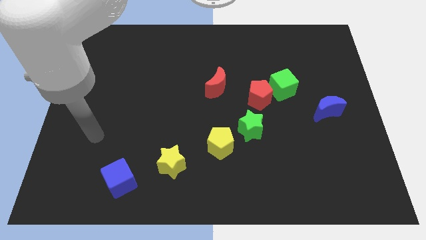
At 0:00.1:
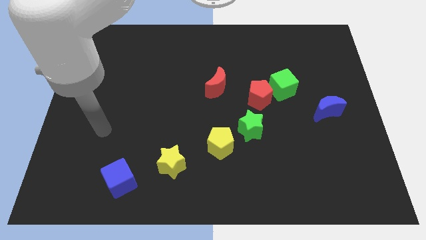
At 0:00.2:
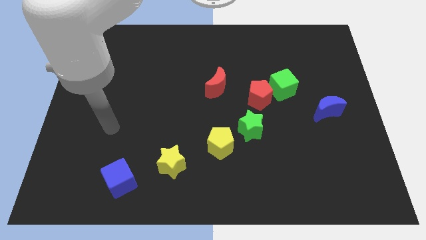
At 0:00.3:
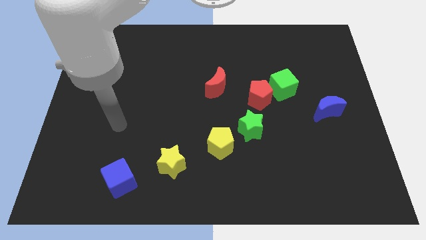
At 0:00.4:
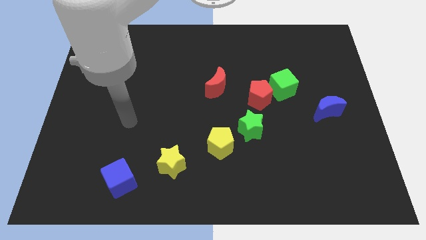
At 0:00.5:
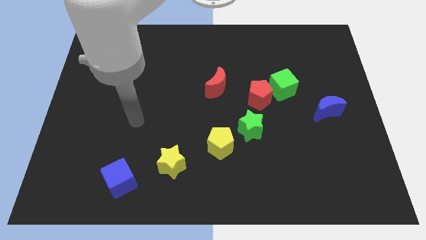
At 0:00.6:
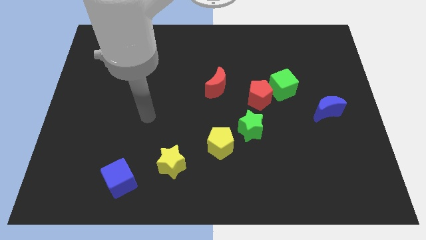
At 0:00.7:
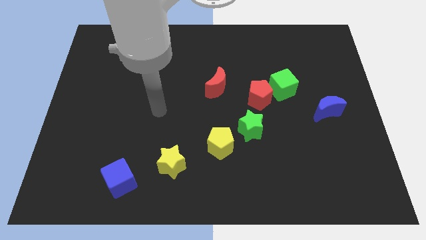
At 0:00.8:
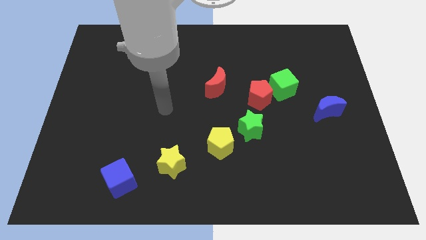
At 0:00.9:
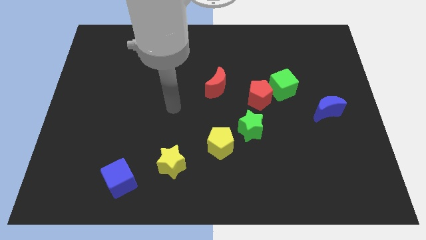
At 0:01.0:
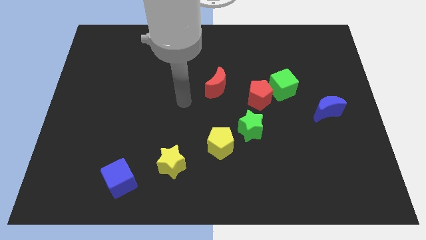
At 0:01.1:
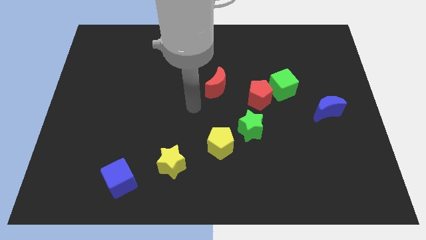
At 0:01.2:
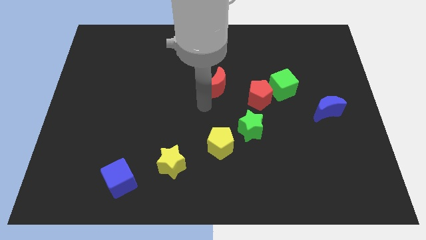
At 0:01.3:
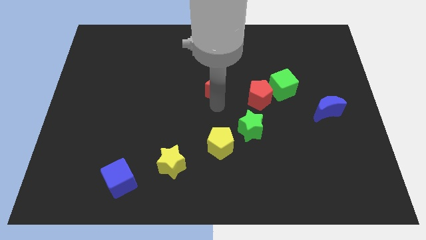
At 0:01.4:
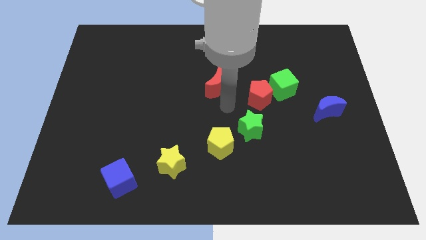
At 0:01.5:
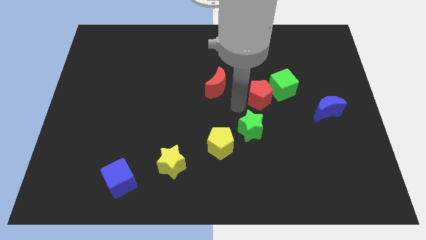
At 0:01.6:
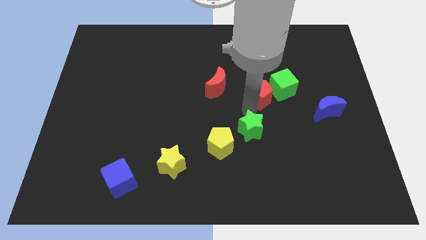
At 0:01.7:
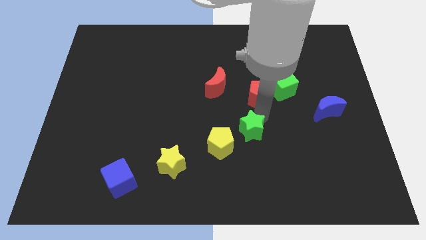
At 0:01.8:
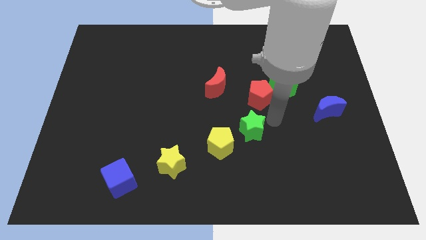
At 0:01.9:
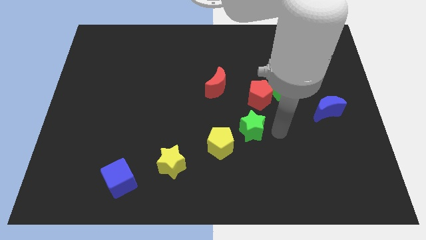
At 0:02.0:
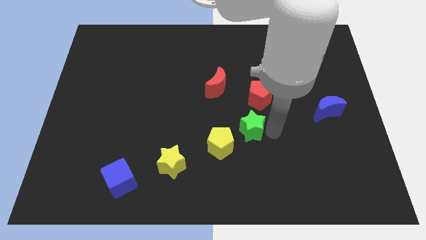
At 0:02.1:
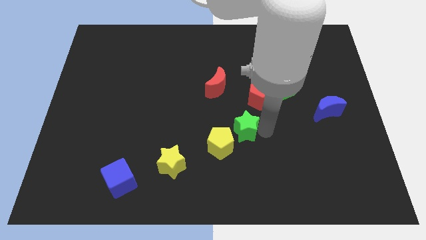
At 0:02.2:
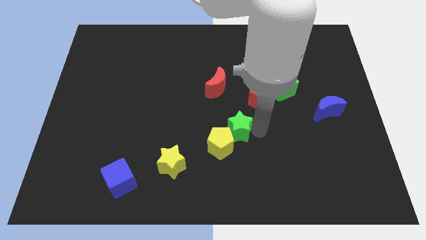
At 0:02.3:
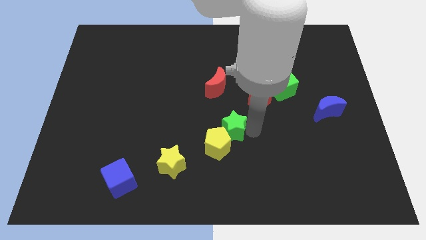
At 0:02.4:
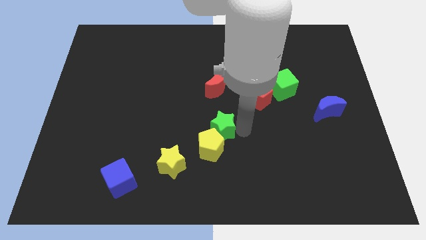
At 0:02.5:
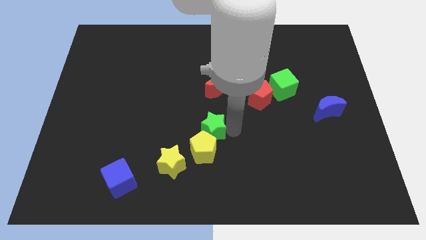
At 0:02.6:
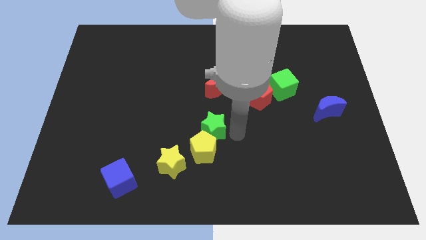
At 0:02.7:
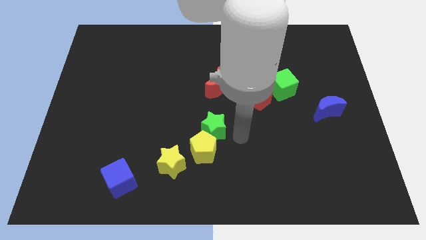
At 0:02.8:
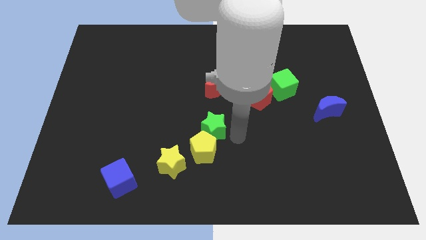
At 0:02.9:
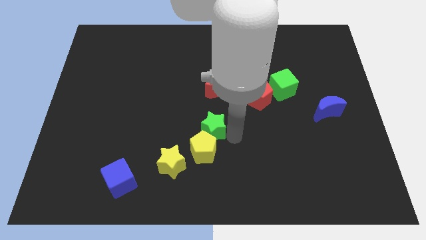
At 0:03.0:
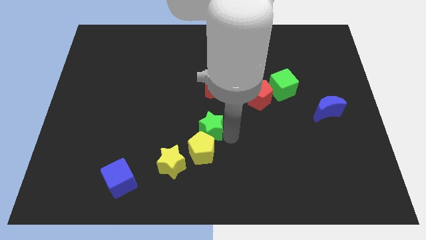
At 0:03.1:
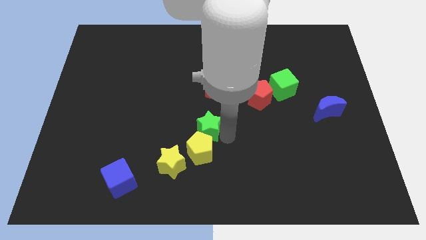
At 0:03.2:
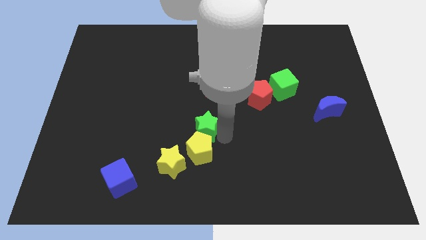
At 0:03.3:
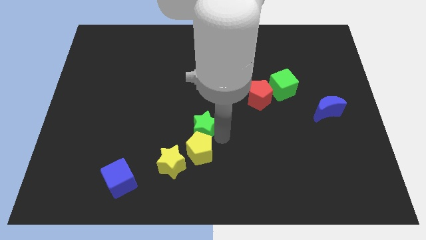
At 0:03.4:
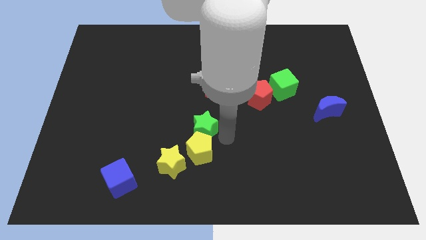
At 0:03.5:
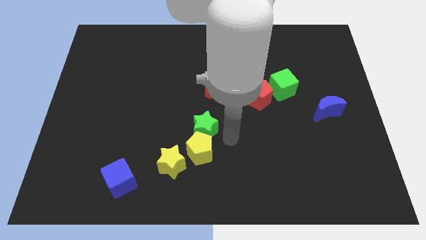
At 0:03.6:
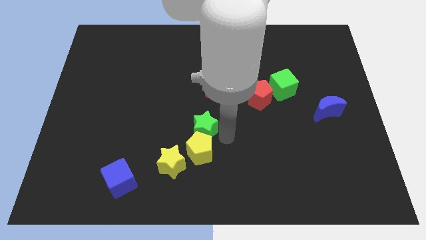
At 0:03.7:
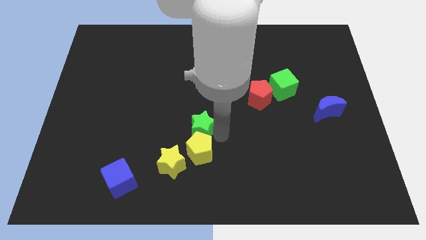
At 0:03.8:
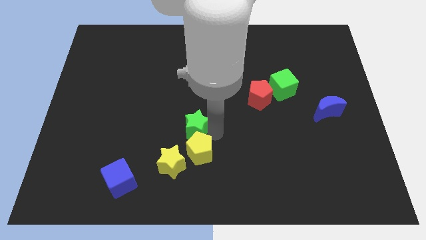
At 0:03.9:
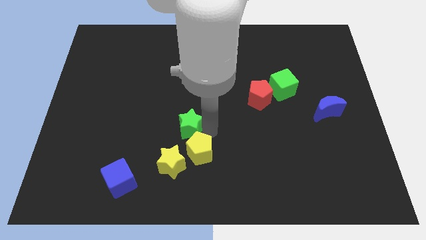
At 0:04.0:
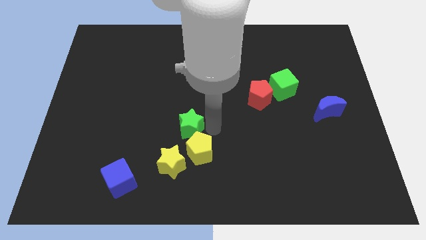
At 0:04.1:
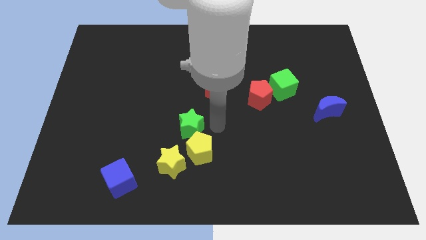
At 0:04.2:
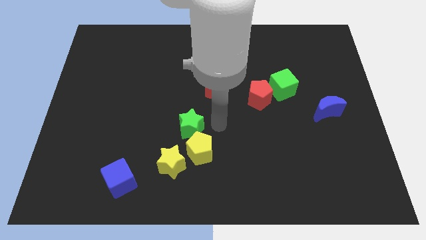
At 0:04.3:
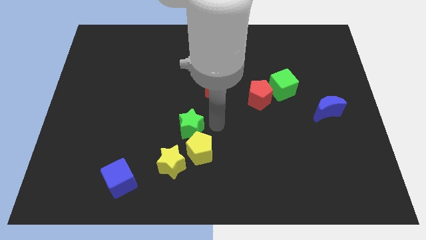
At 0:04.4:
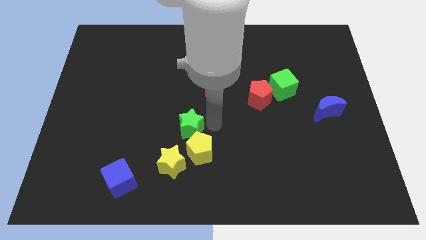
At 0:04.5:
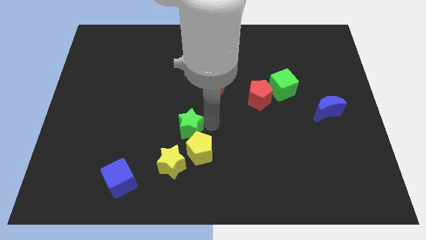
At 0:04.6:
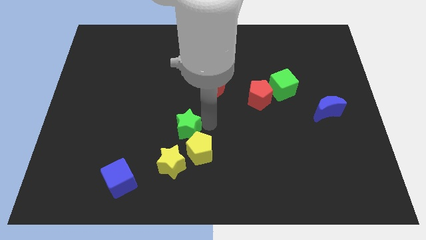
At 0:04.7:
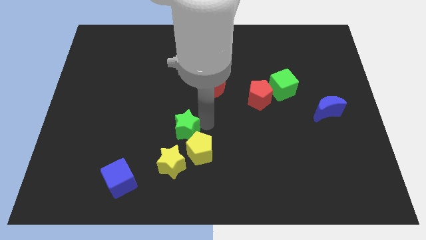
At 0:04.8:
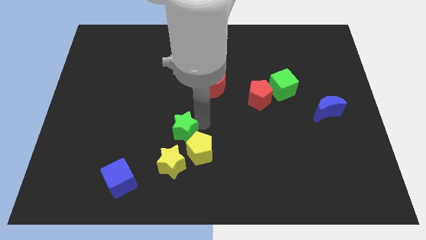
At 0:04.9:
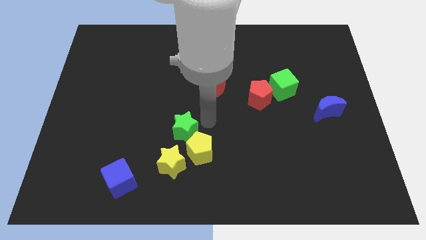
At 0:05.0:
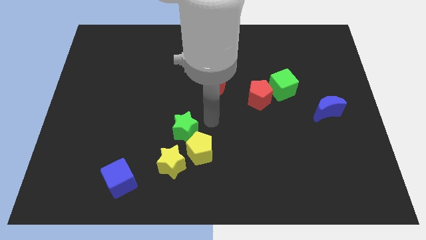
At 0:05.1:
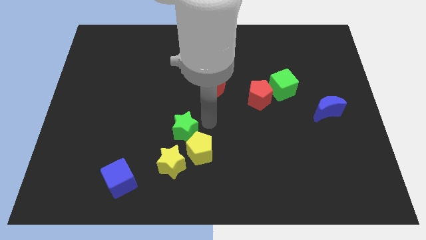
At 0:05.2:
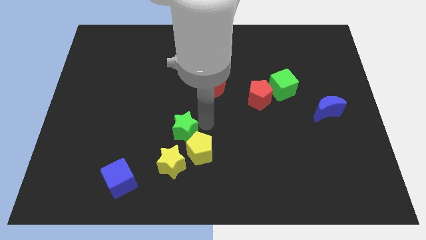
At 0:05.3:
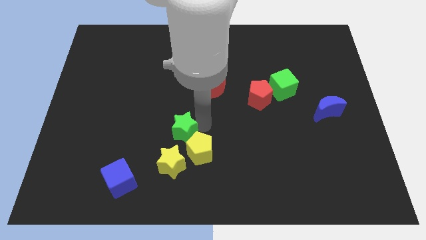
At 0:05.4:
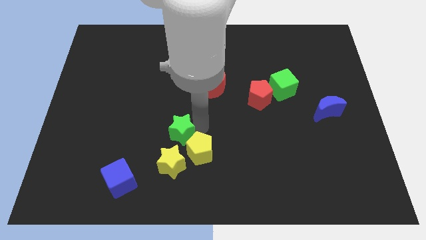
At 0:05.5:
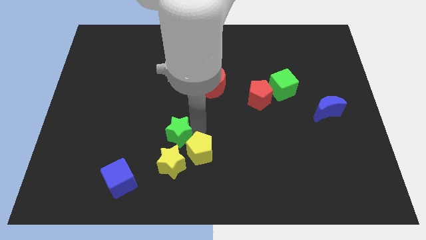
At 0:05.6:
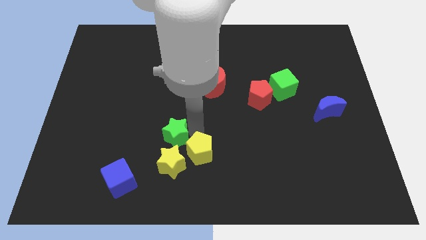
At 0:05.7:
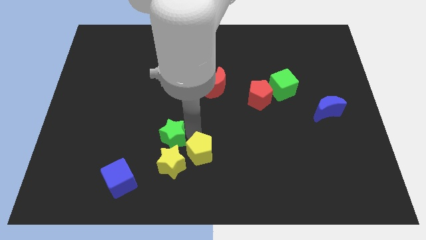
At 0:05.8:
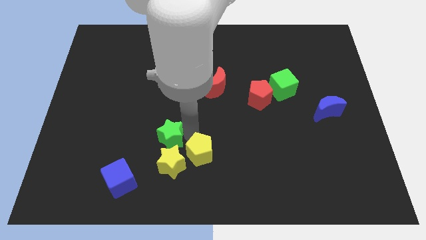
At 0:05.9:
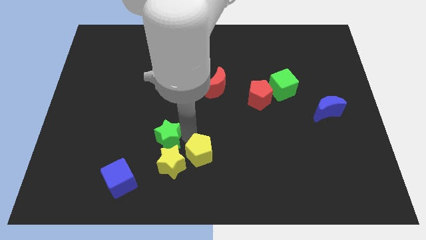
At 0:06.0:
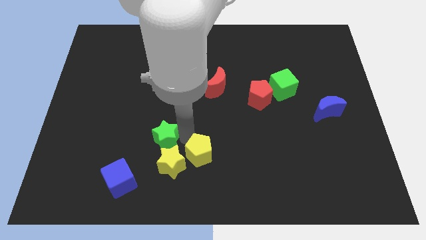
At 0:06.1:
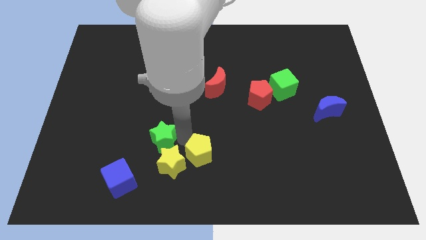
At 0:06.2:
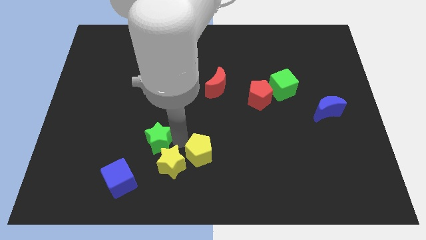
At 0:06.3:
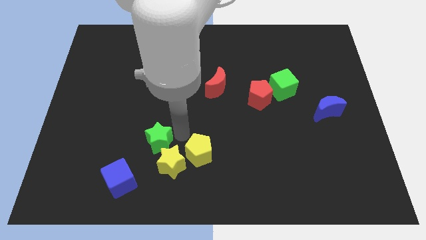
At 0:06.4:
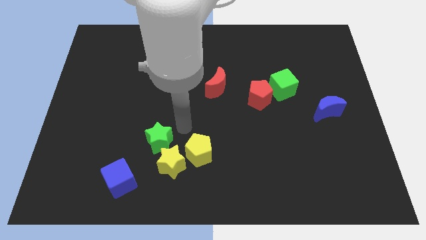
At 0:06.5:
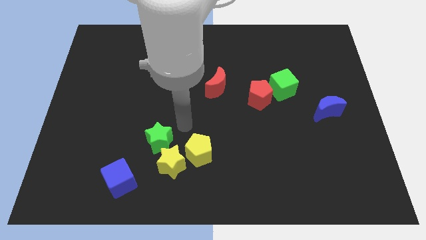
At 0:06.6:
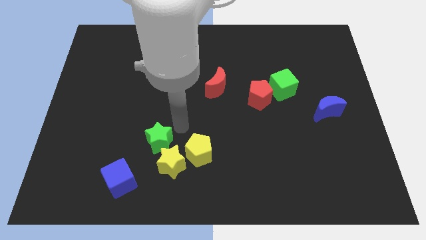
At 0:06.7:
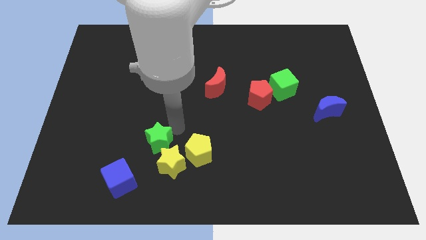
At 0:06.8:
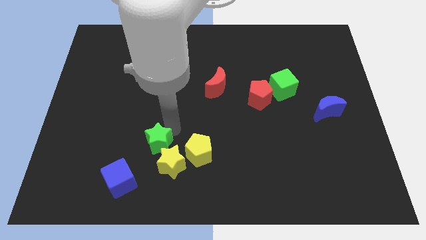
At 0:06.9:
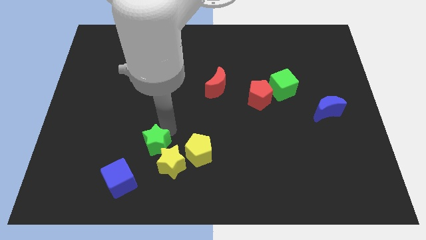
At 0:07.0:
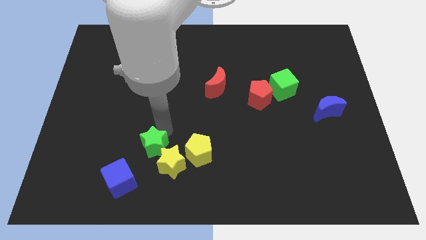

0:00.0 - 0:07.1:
move the green star to the left side of the yellow star
